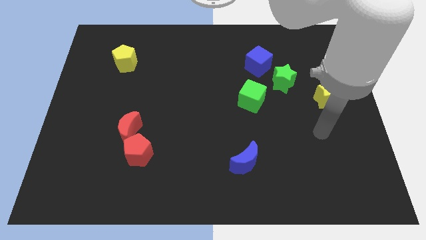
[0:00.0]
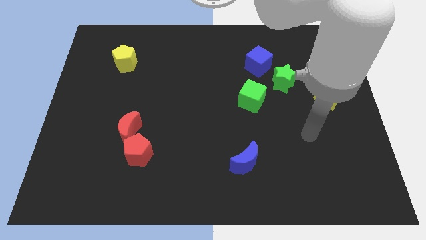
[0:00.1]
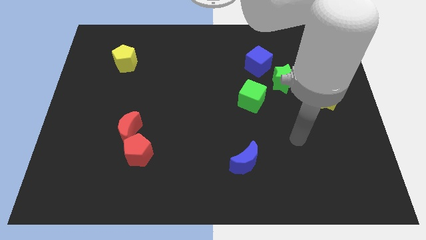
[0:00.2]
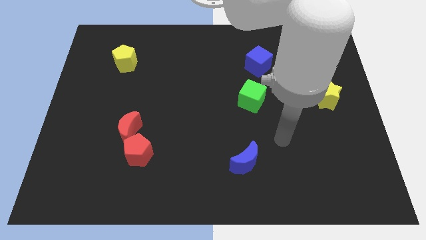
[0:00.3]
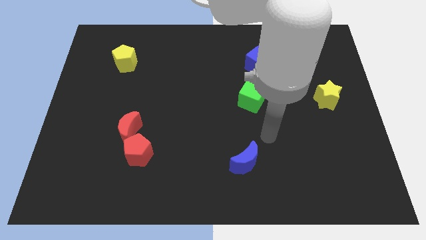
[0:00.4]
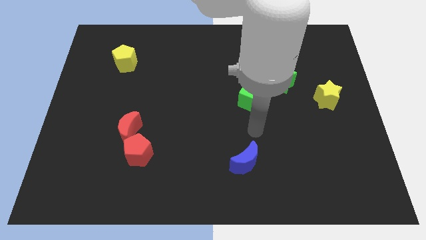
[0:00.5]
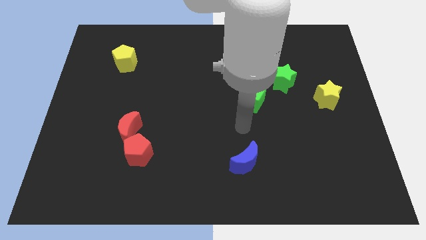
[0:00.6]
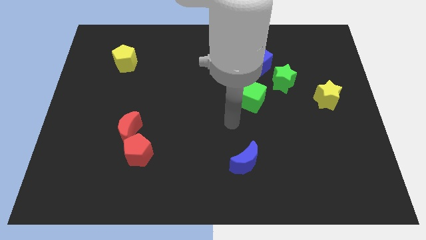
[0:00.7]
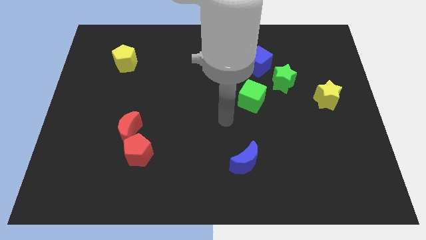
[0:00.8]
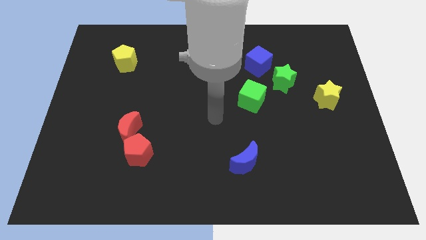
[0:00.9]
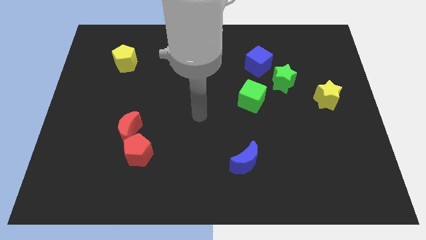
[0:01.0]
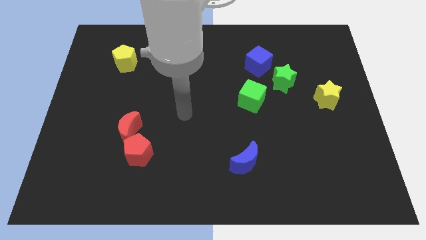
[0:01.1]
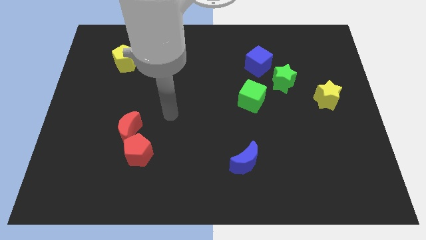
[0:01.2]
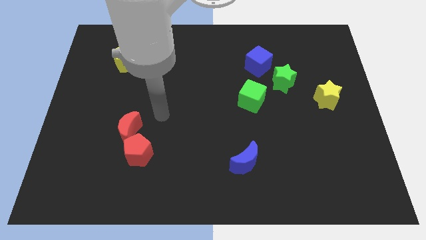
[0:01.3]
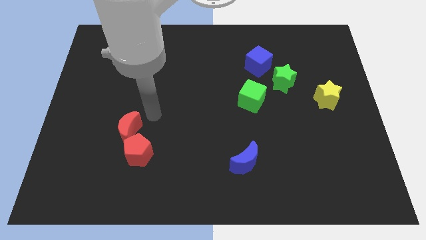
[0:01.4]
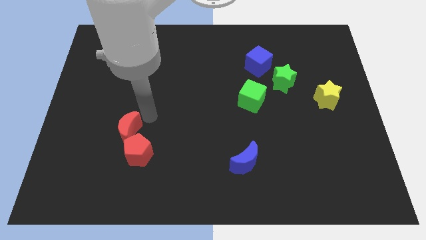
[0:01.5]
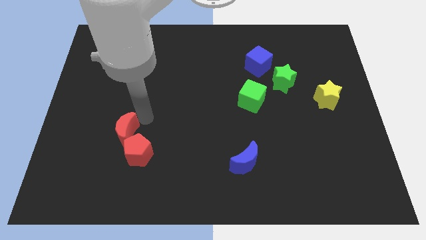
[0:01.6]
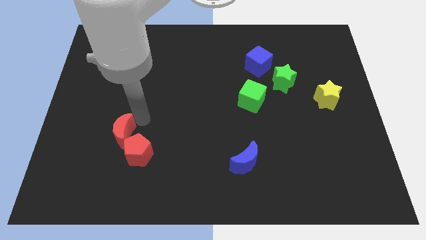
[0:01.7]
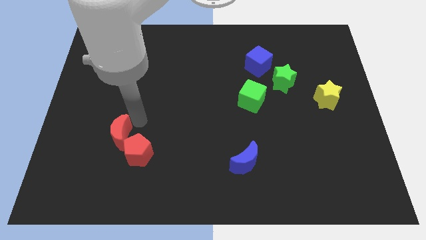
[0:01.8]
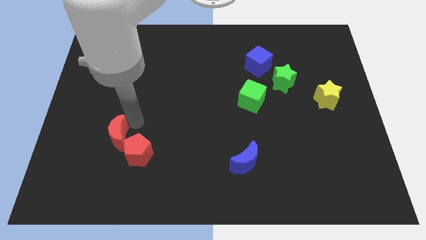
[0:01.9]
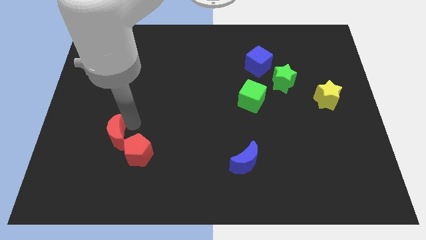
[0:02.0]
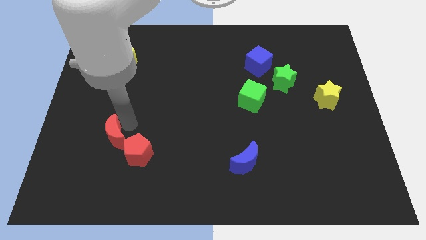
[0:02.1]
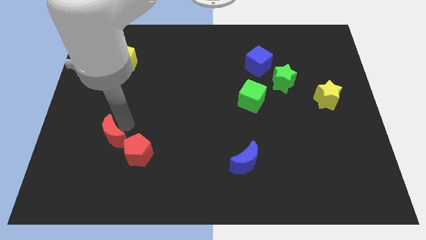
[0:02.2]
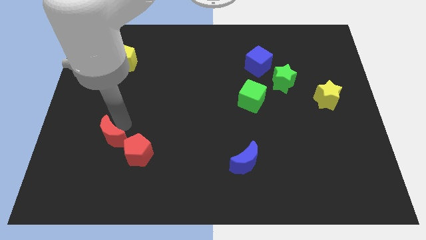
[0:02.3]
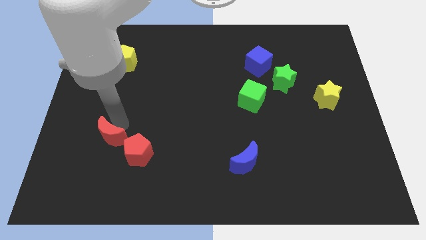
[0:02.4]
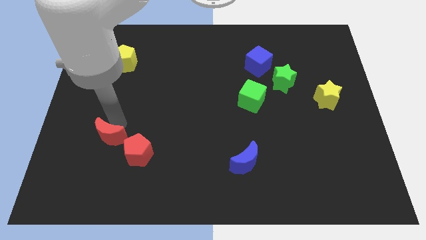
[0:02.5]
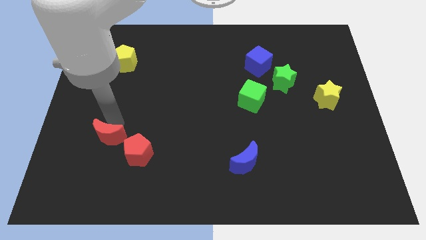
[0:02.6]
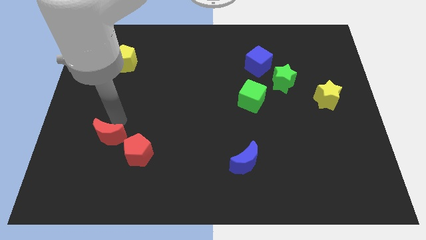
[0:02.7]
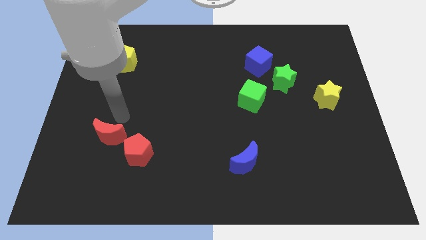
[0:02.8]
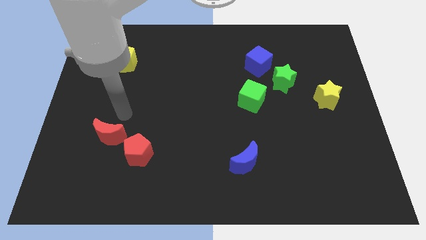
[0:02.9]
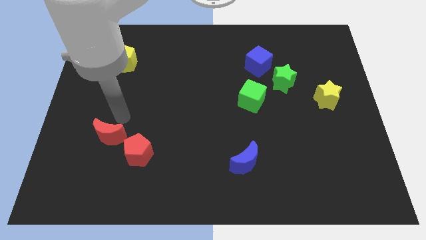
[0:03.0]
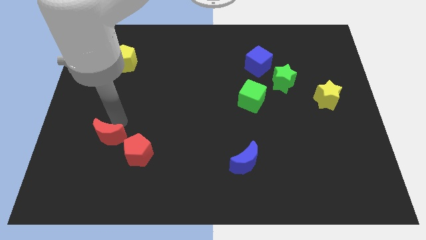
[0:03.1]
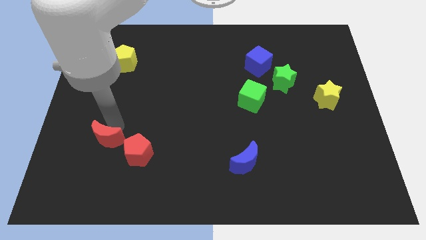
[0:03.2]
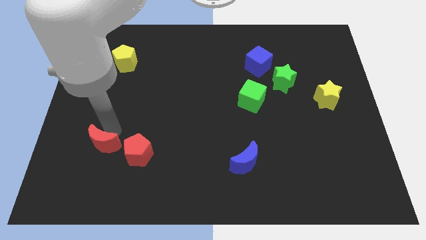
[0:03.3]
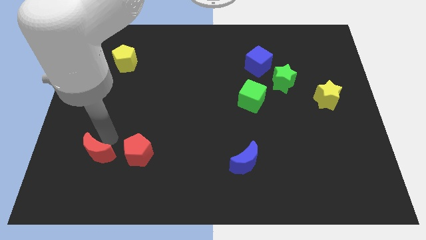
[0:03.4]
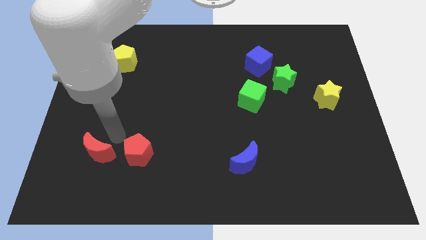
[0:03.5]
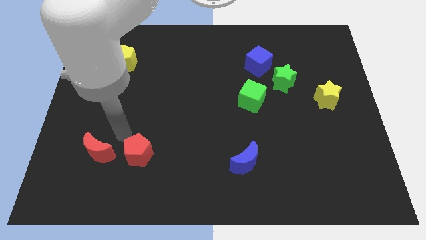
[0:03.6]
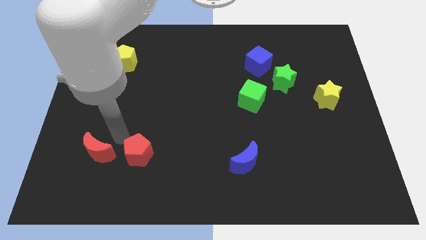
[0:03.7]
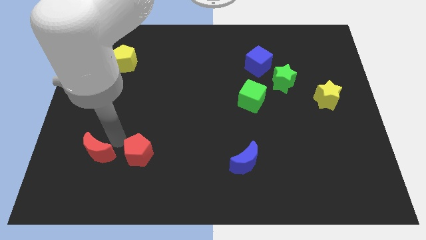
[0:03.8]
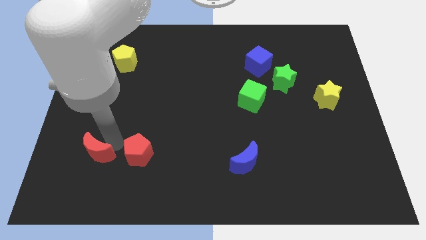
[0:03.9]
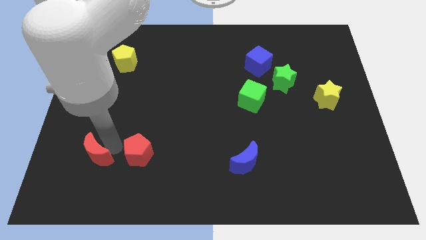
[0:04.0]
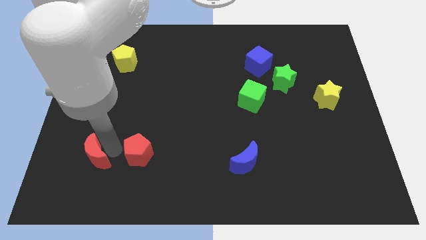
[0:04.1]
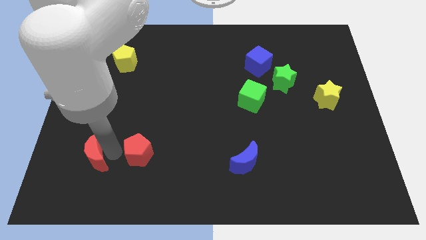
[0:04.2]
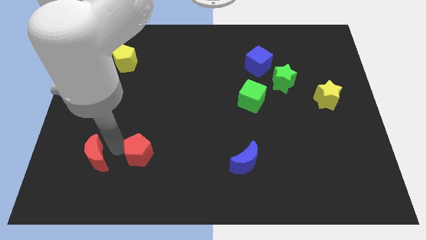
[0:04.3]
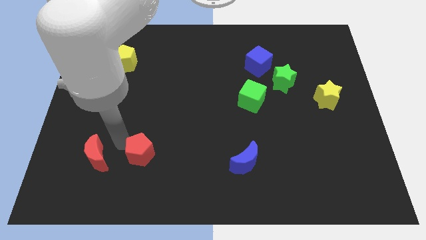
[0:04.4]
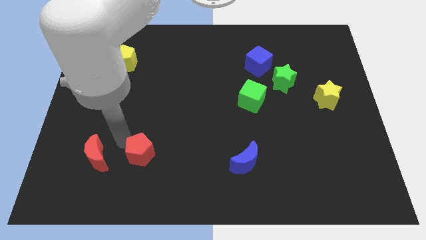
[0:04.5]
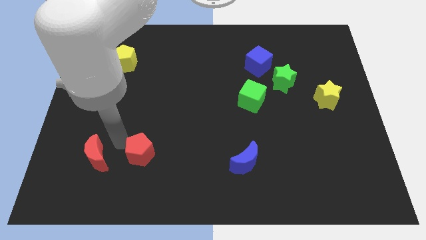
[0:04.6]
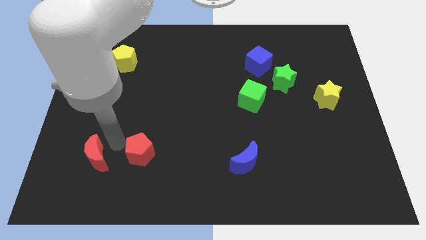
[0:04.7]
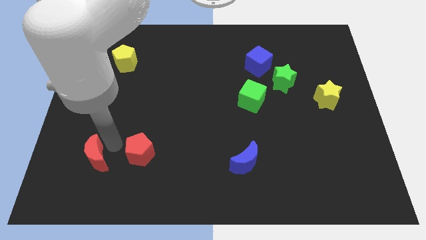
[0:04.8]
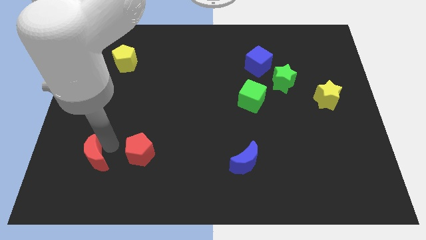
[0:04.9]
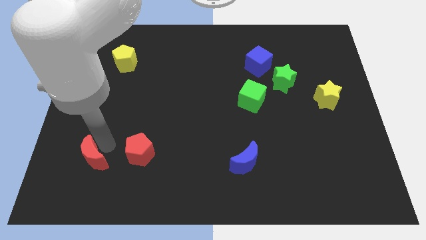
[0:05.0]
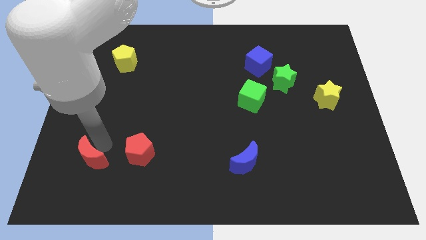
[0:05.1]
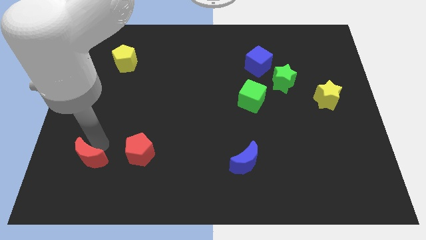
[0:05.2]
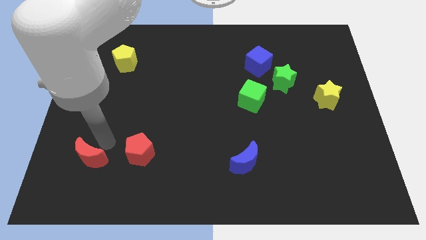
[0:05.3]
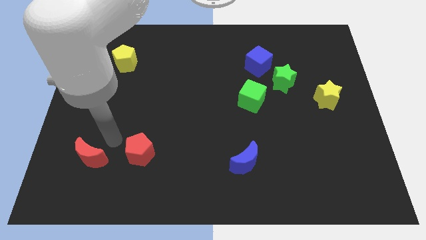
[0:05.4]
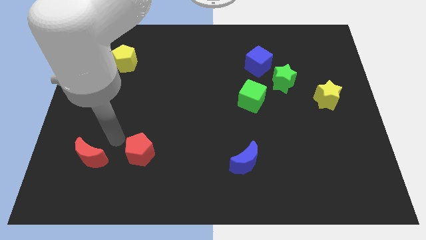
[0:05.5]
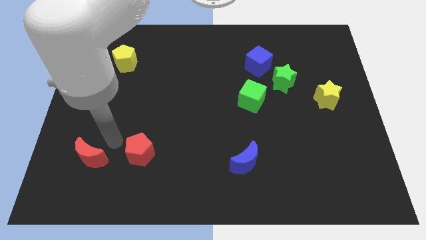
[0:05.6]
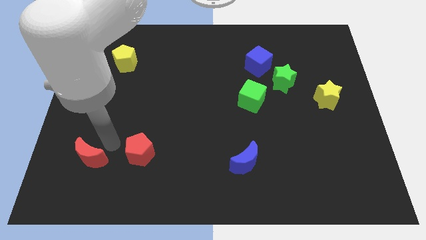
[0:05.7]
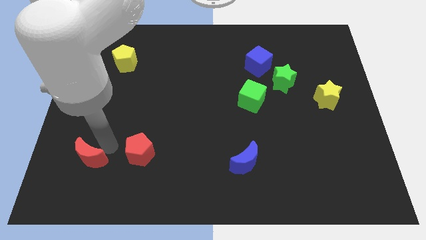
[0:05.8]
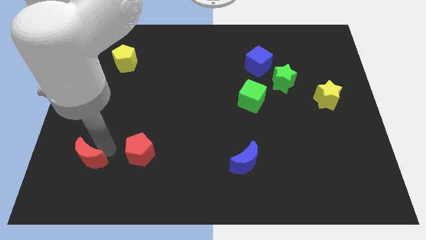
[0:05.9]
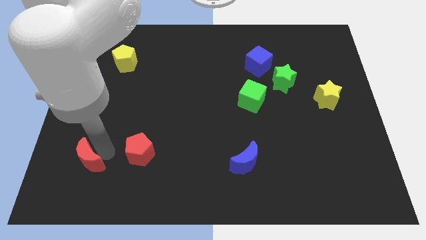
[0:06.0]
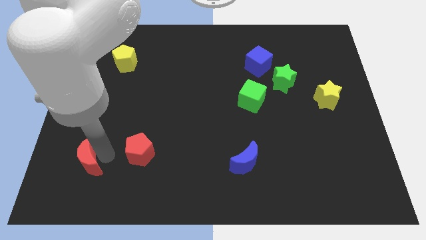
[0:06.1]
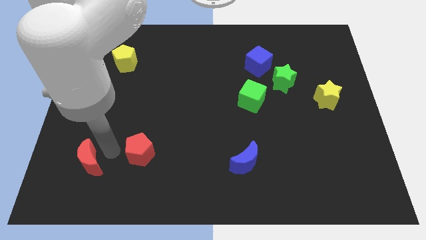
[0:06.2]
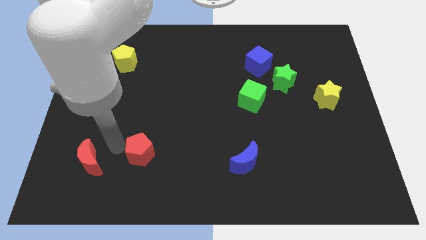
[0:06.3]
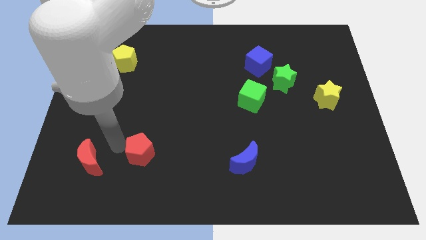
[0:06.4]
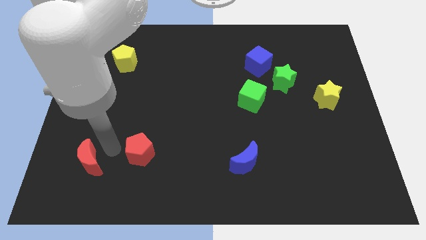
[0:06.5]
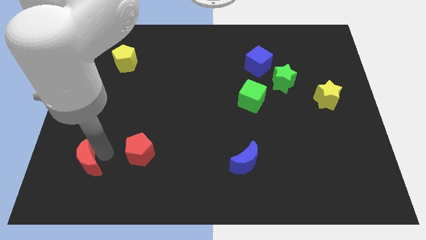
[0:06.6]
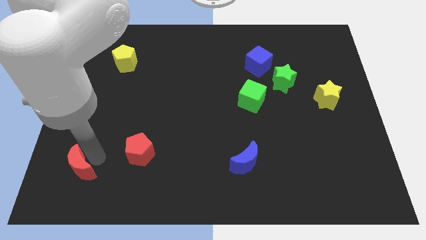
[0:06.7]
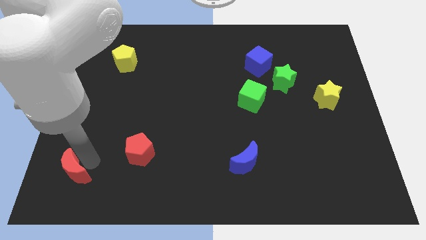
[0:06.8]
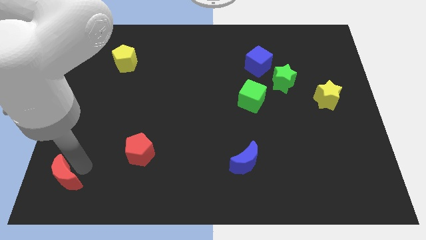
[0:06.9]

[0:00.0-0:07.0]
slide the red moon to the lower left corner
